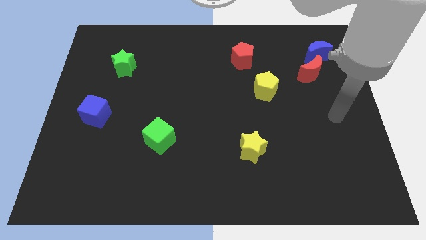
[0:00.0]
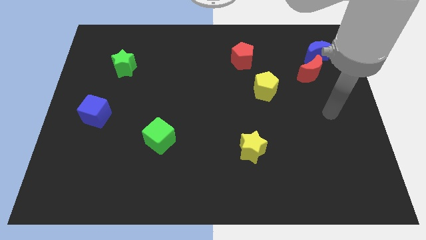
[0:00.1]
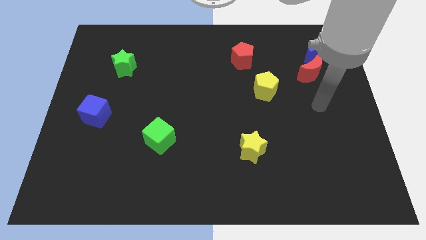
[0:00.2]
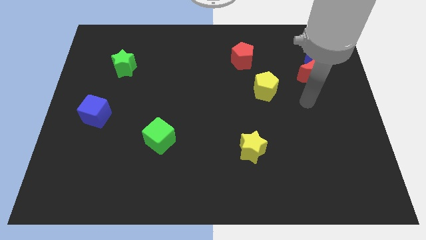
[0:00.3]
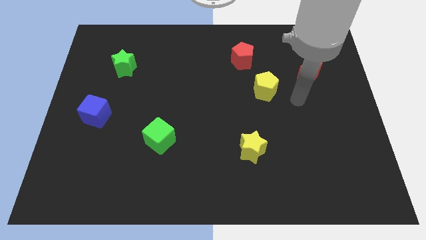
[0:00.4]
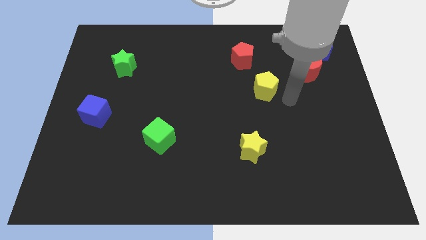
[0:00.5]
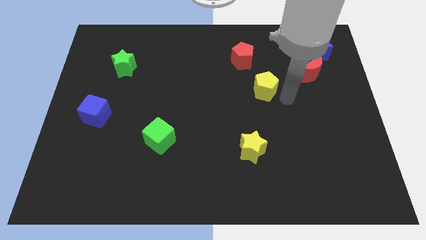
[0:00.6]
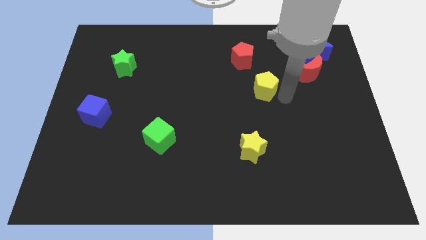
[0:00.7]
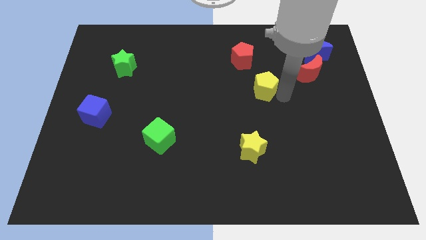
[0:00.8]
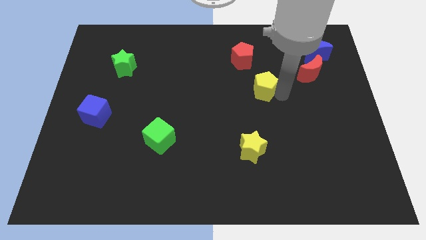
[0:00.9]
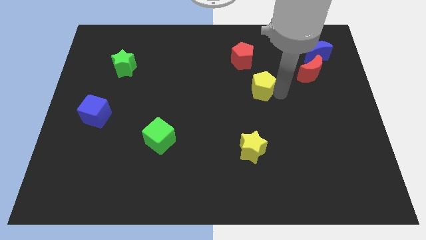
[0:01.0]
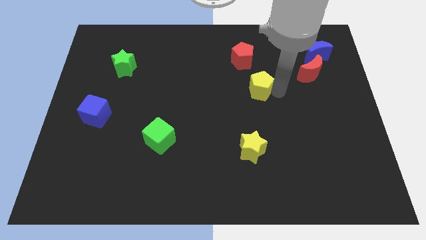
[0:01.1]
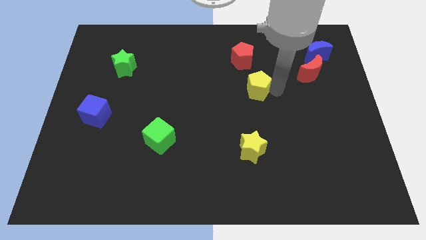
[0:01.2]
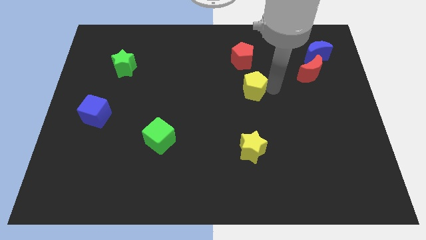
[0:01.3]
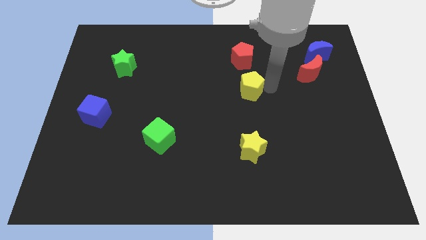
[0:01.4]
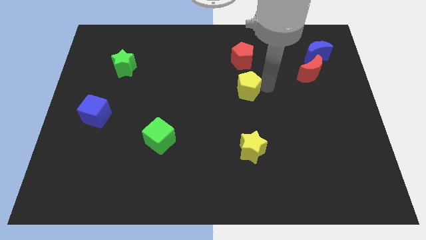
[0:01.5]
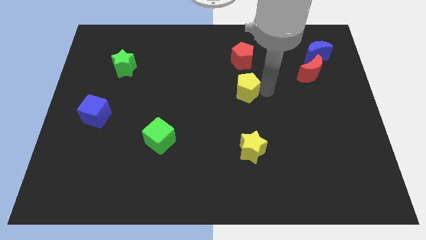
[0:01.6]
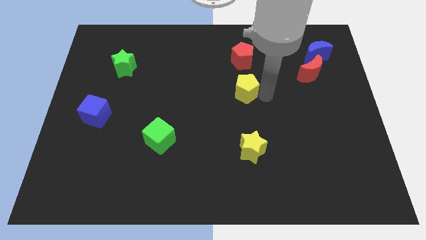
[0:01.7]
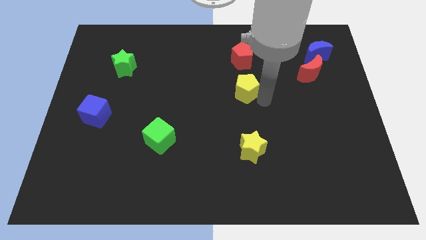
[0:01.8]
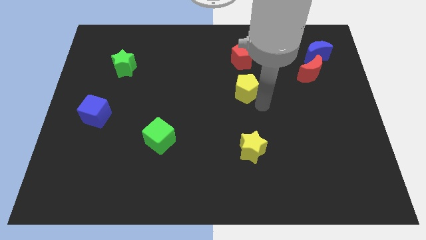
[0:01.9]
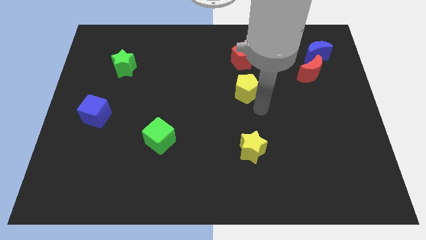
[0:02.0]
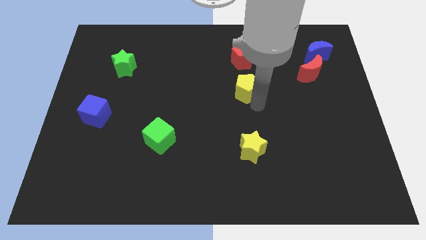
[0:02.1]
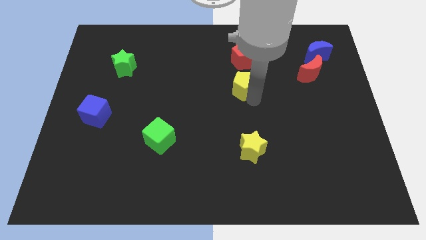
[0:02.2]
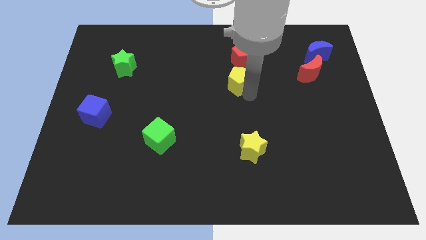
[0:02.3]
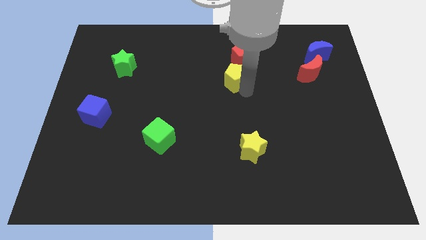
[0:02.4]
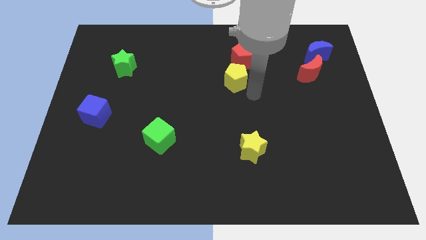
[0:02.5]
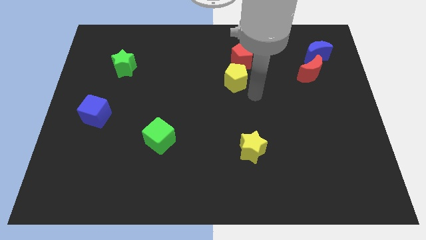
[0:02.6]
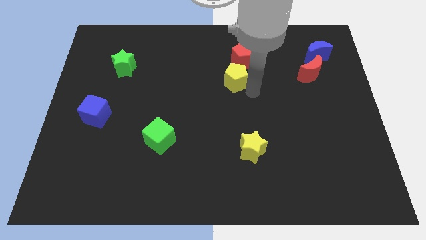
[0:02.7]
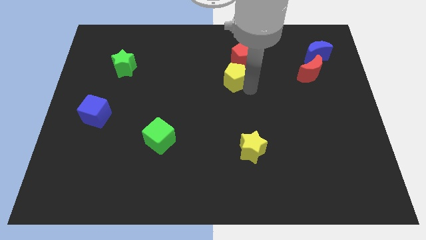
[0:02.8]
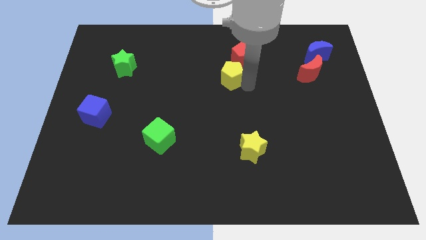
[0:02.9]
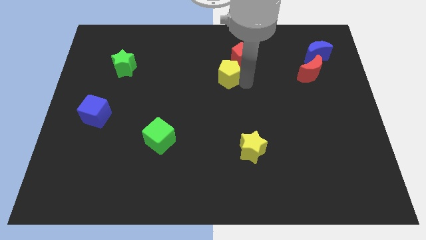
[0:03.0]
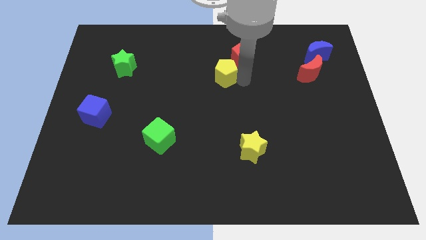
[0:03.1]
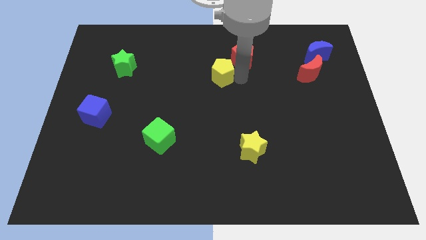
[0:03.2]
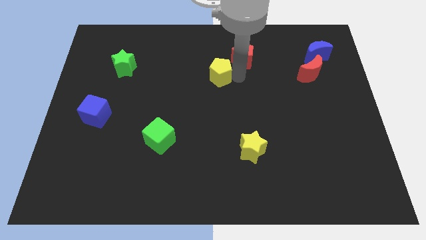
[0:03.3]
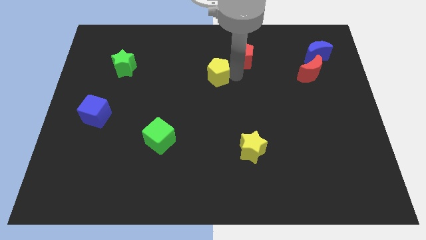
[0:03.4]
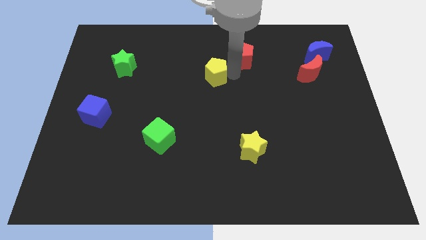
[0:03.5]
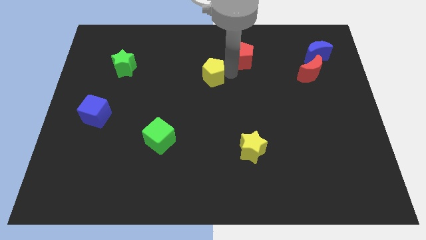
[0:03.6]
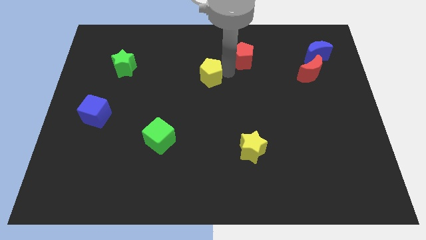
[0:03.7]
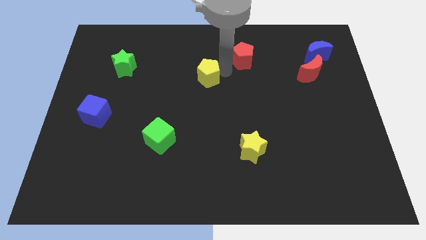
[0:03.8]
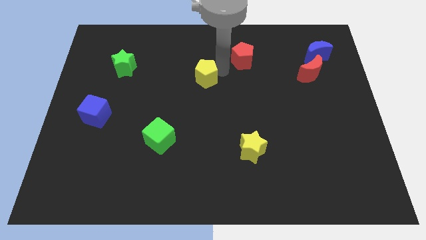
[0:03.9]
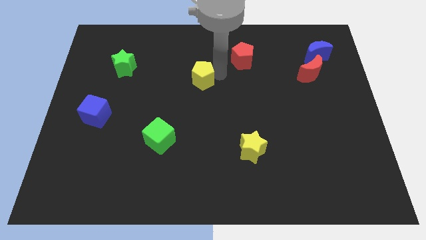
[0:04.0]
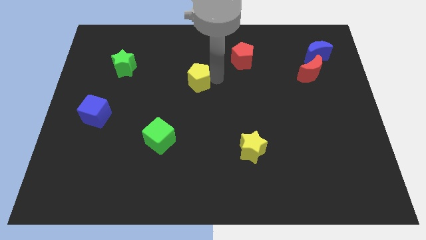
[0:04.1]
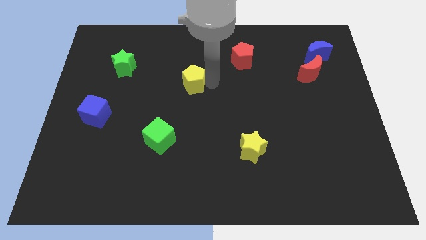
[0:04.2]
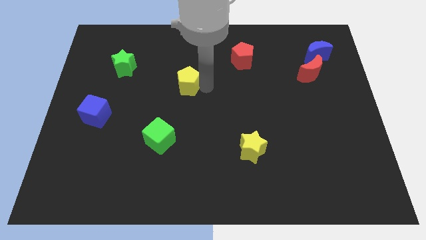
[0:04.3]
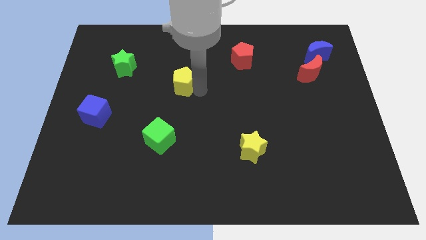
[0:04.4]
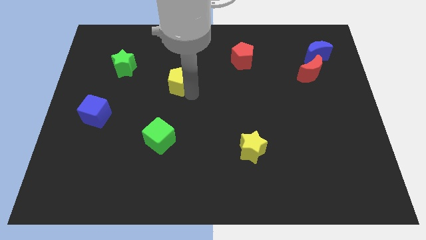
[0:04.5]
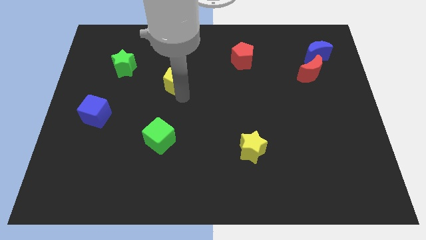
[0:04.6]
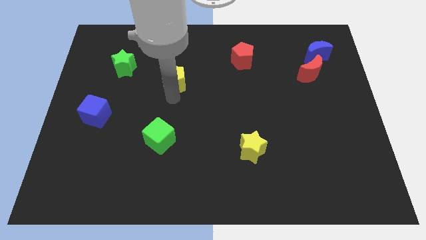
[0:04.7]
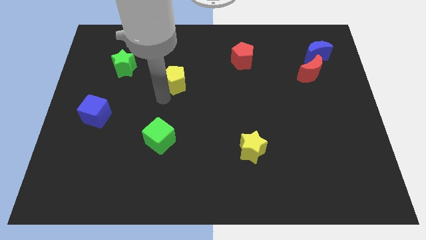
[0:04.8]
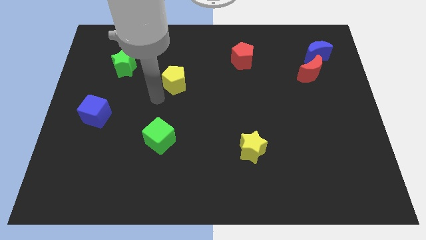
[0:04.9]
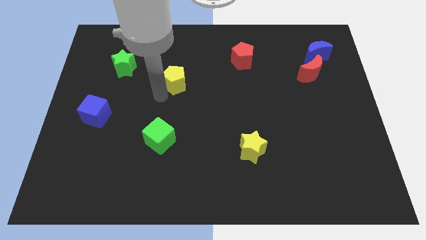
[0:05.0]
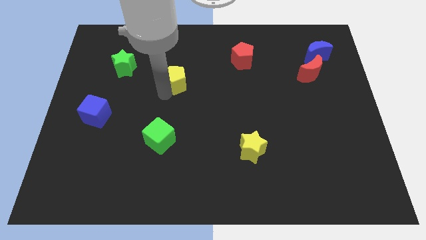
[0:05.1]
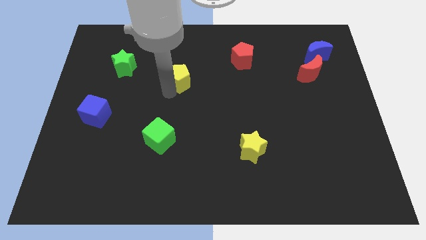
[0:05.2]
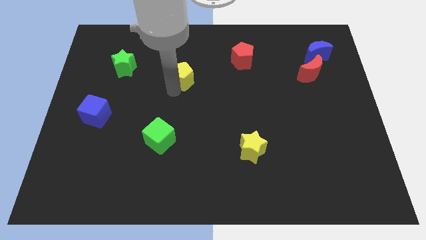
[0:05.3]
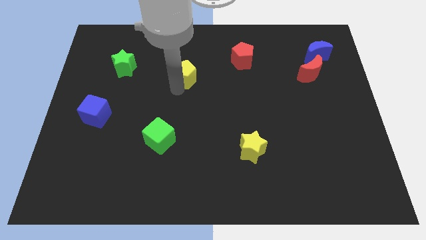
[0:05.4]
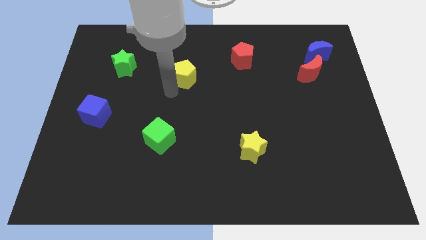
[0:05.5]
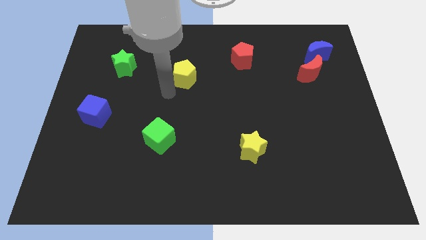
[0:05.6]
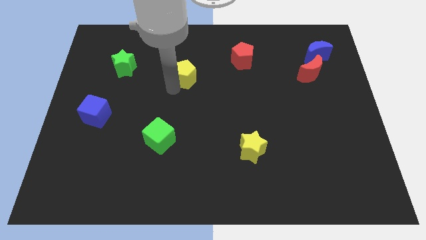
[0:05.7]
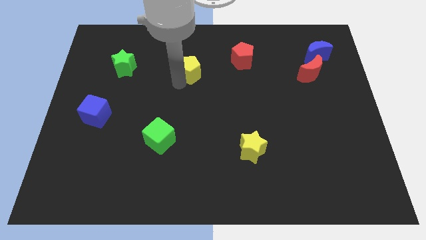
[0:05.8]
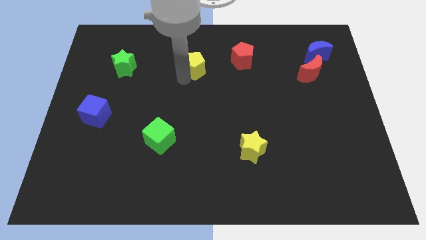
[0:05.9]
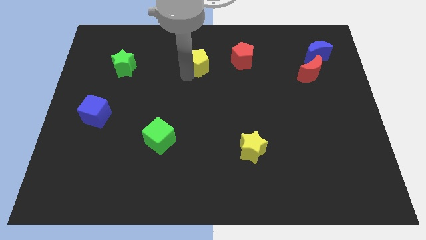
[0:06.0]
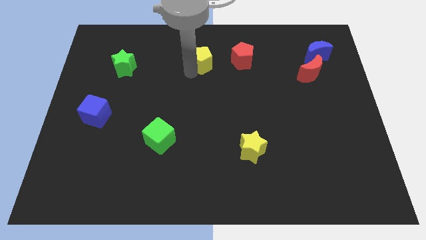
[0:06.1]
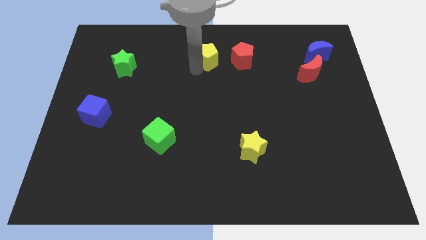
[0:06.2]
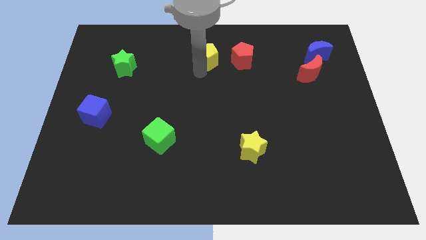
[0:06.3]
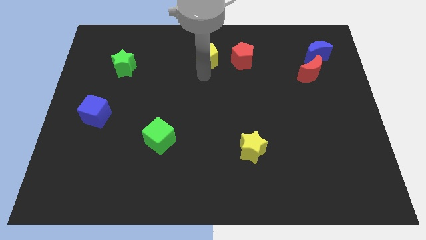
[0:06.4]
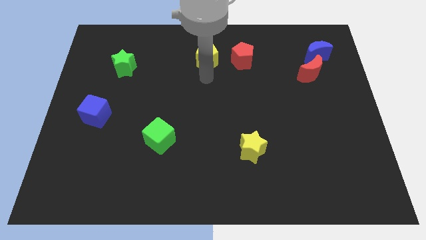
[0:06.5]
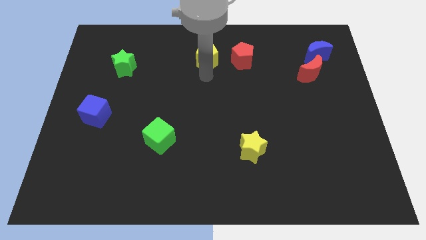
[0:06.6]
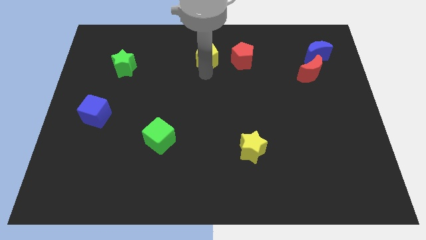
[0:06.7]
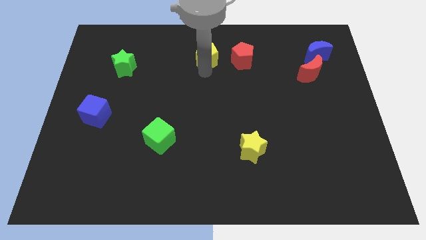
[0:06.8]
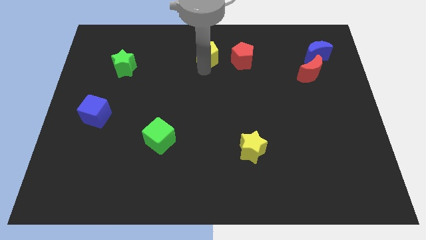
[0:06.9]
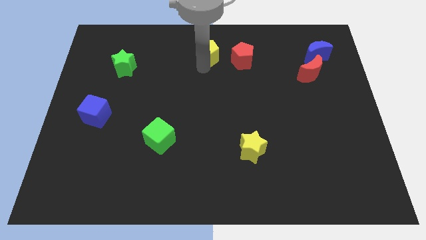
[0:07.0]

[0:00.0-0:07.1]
push the yellow pentagon to the top side
